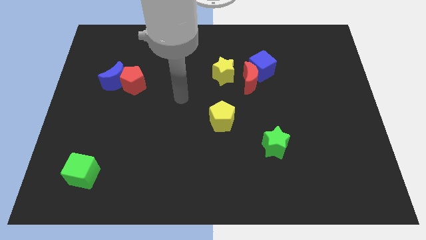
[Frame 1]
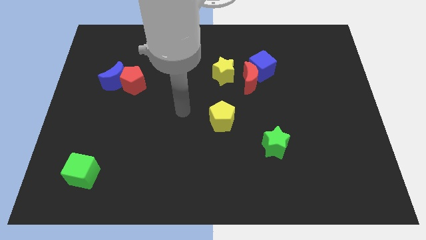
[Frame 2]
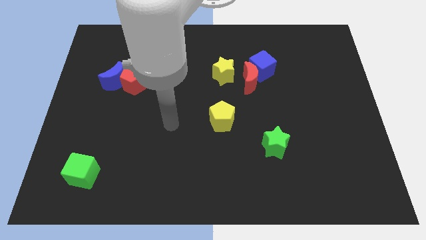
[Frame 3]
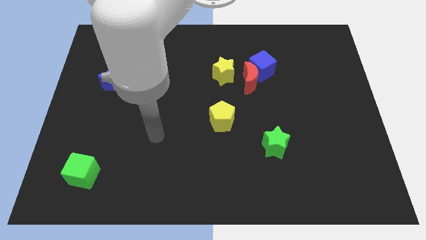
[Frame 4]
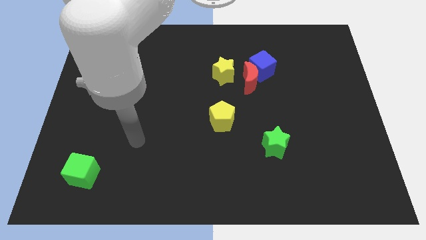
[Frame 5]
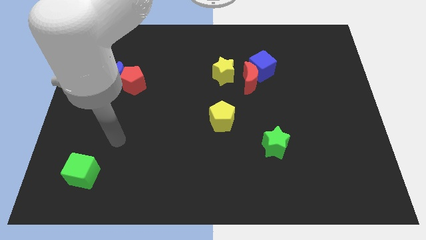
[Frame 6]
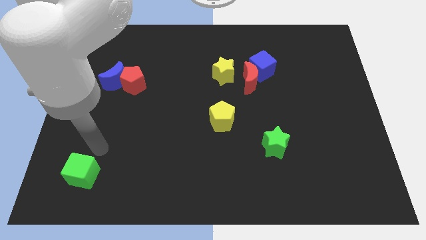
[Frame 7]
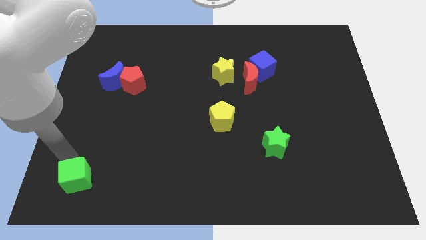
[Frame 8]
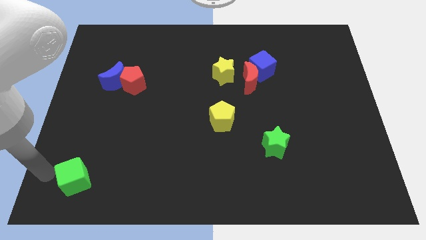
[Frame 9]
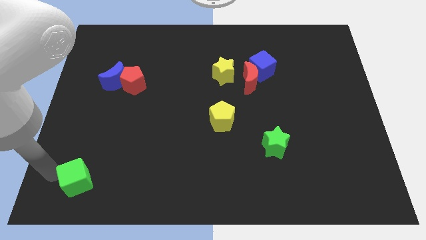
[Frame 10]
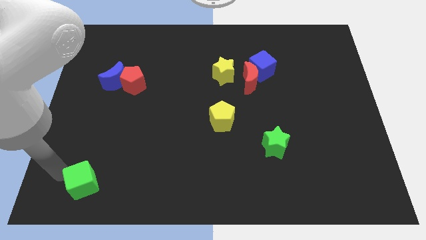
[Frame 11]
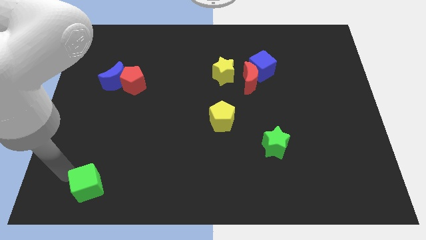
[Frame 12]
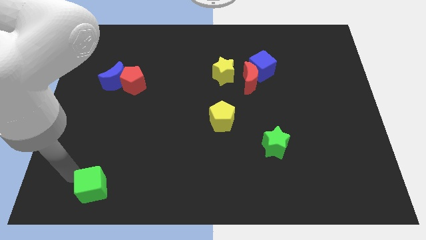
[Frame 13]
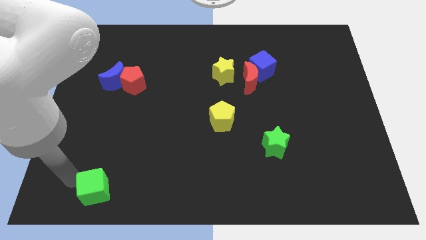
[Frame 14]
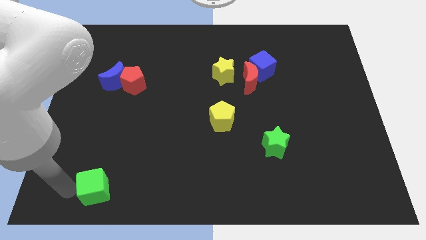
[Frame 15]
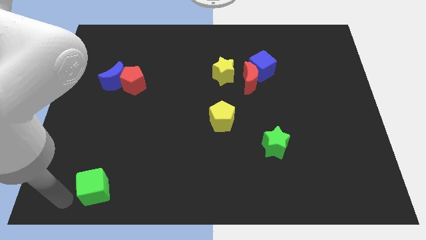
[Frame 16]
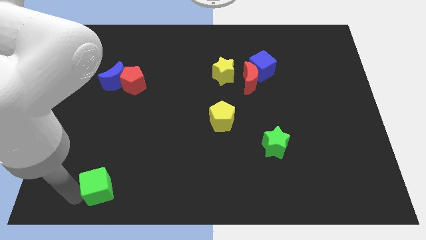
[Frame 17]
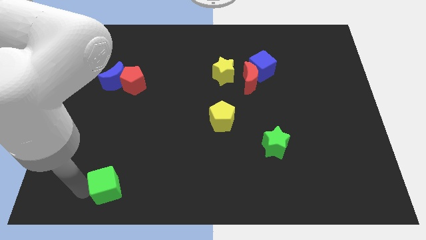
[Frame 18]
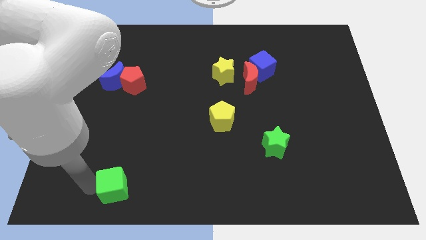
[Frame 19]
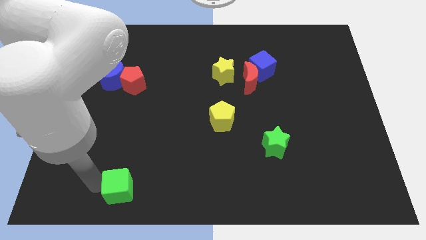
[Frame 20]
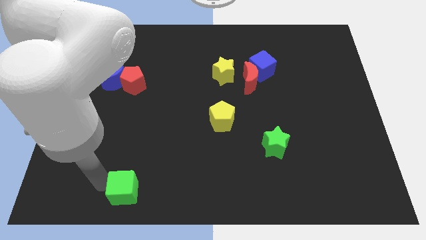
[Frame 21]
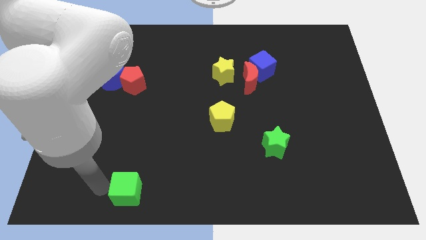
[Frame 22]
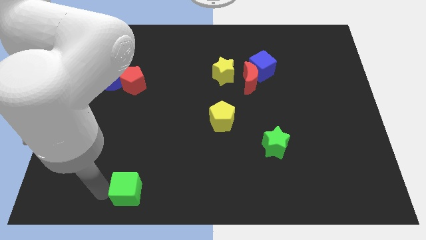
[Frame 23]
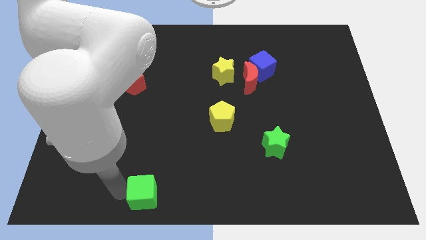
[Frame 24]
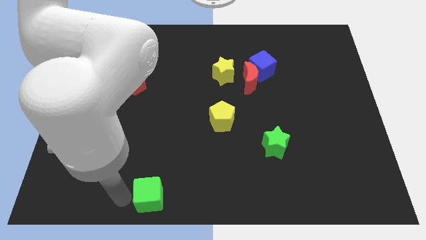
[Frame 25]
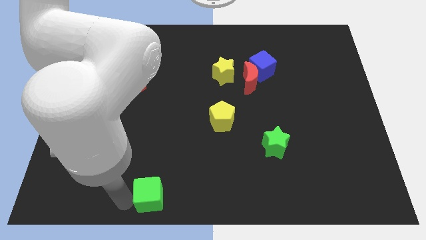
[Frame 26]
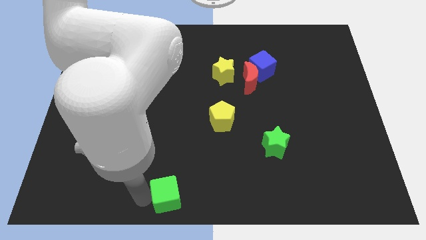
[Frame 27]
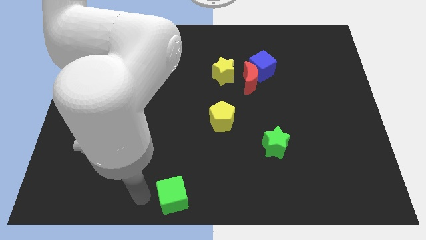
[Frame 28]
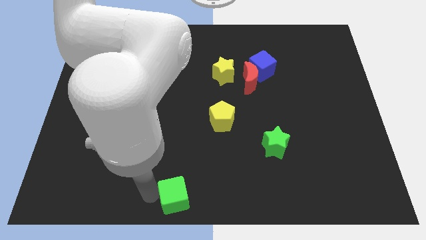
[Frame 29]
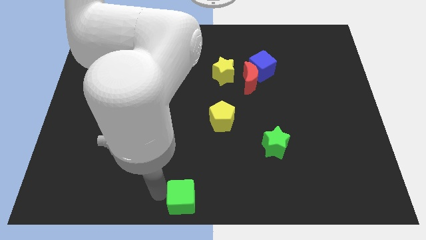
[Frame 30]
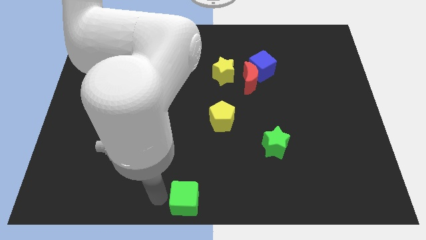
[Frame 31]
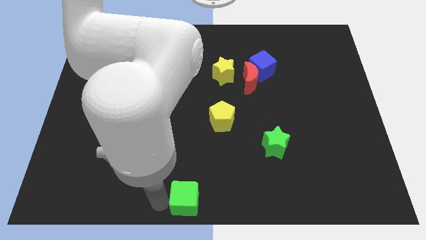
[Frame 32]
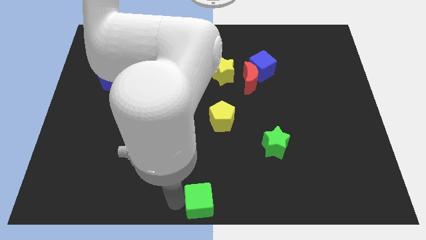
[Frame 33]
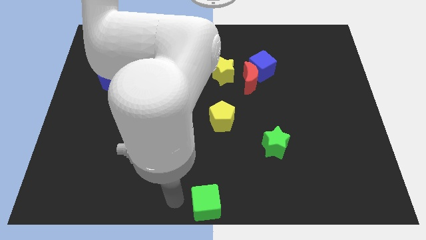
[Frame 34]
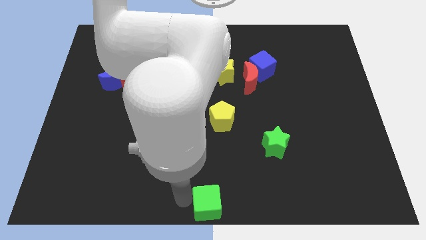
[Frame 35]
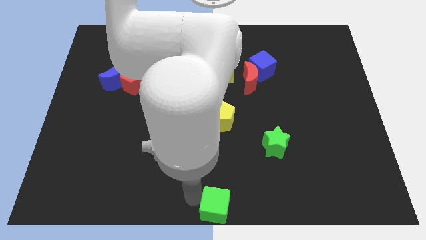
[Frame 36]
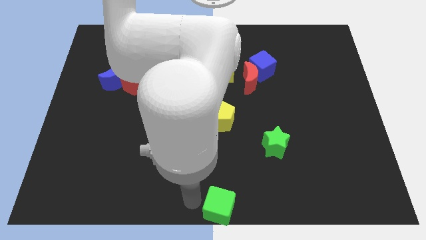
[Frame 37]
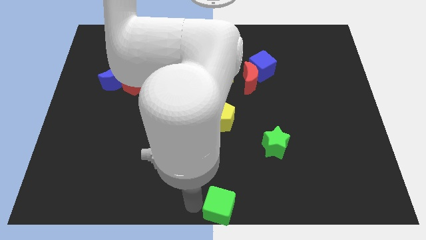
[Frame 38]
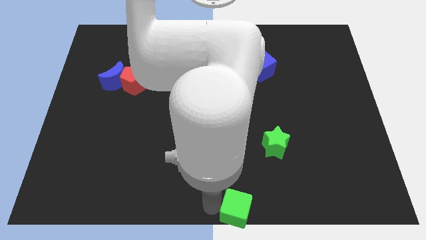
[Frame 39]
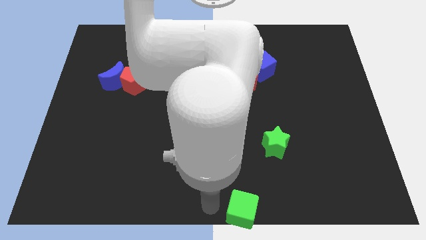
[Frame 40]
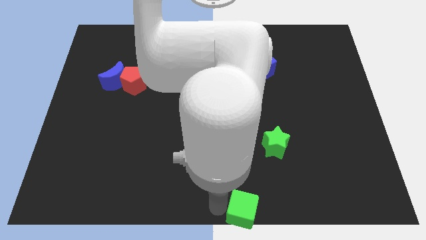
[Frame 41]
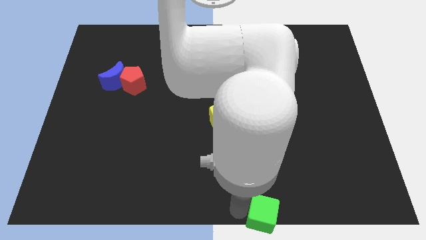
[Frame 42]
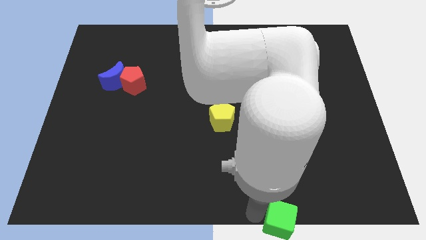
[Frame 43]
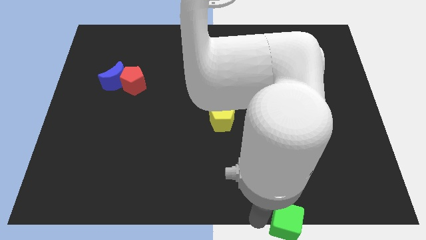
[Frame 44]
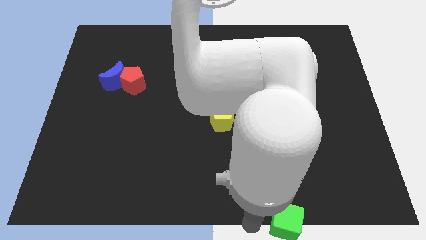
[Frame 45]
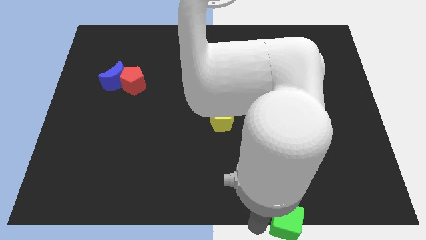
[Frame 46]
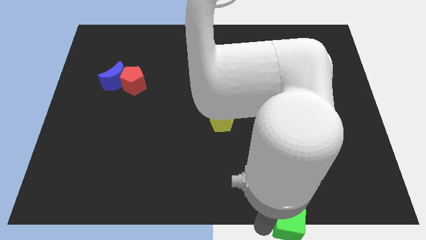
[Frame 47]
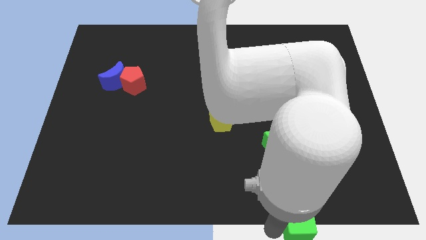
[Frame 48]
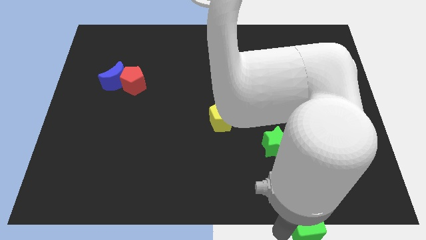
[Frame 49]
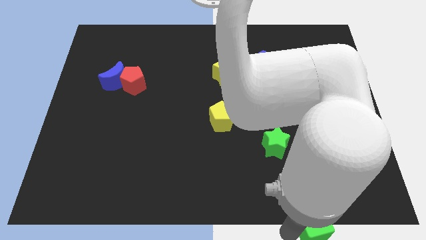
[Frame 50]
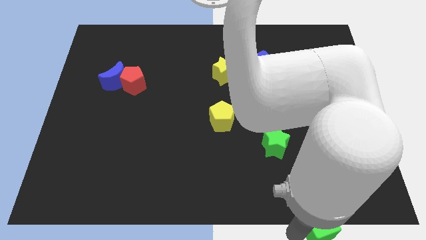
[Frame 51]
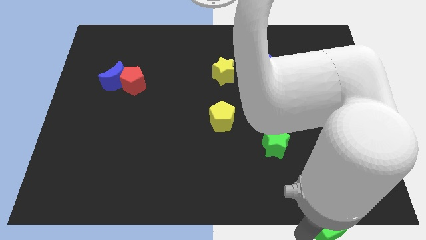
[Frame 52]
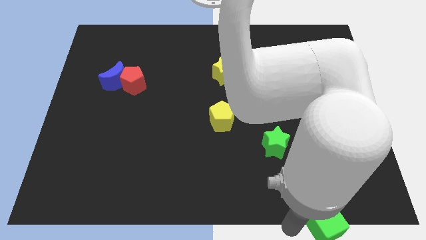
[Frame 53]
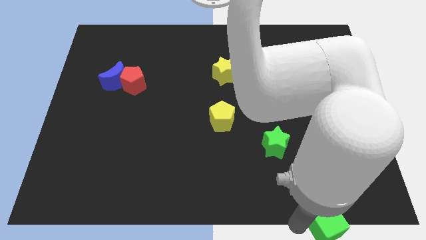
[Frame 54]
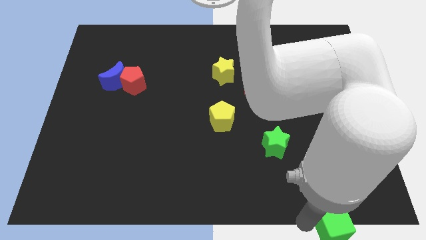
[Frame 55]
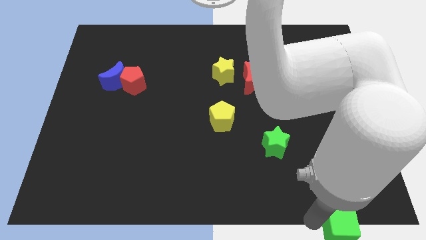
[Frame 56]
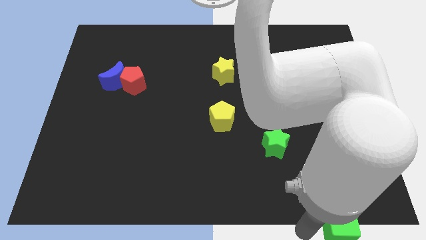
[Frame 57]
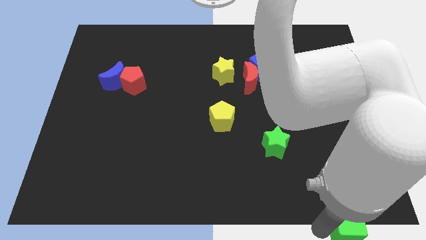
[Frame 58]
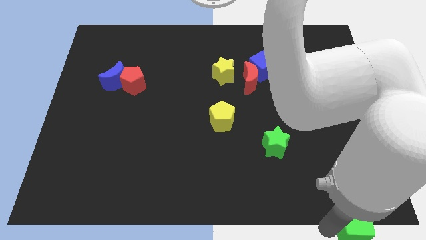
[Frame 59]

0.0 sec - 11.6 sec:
move the green cube to the bottom right of the board

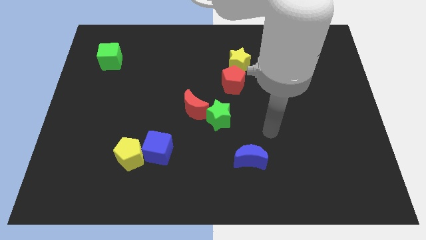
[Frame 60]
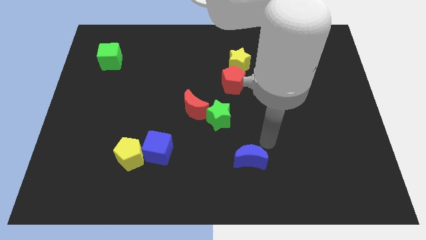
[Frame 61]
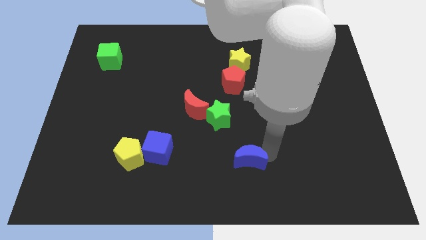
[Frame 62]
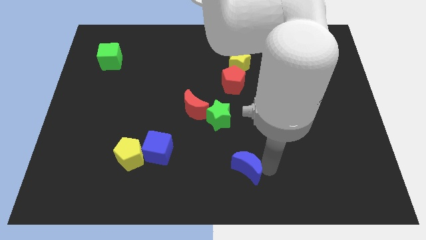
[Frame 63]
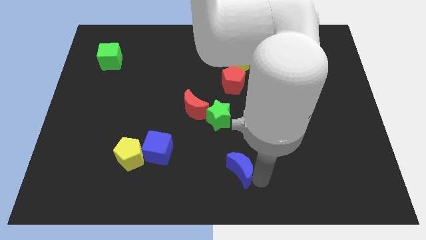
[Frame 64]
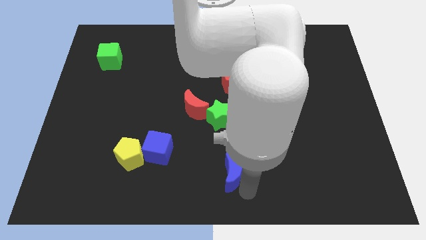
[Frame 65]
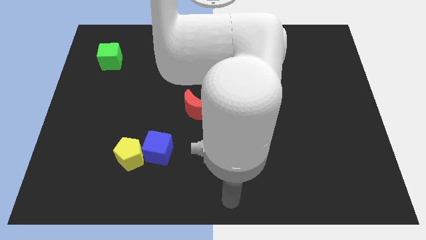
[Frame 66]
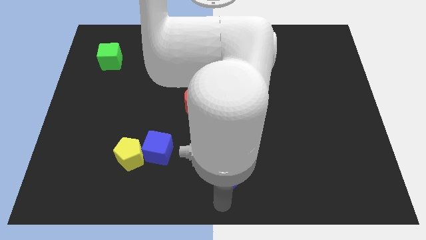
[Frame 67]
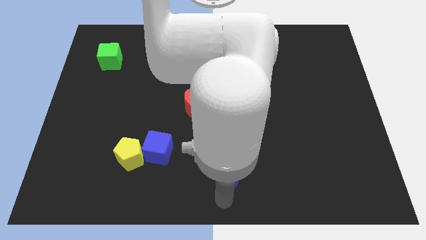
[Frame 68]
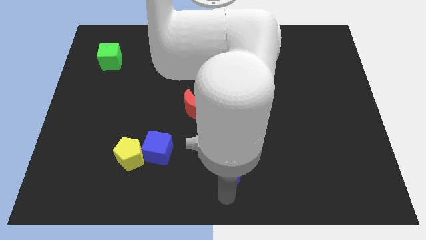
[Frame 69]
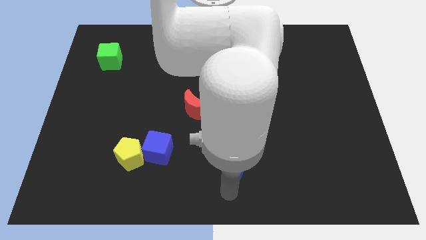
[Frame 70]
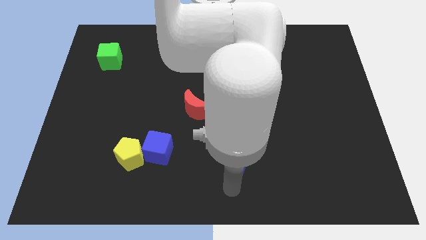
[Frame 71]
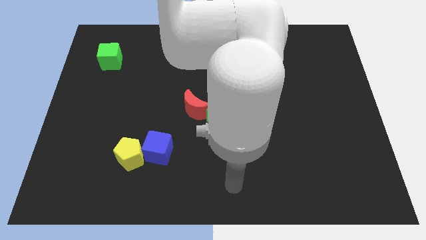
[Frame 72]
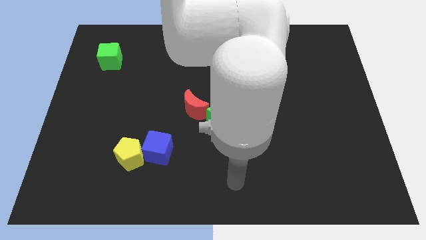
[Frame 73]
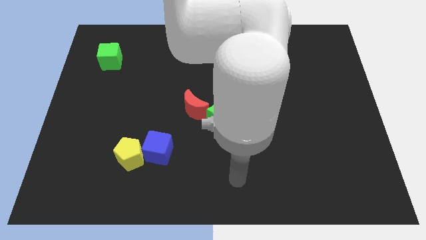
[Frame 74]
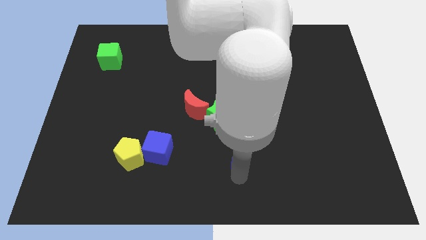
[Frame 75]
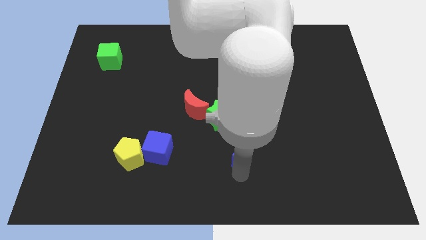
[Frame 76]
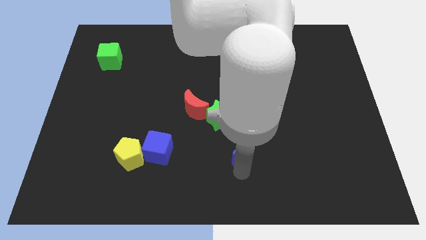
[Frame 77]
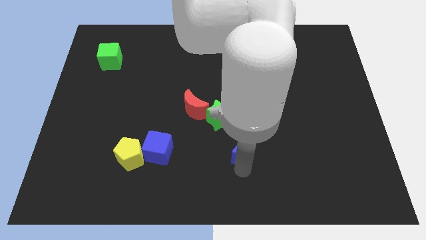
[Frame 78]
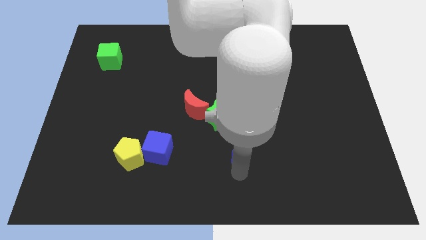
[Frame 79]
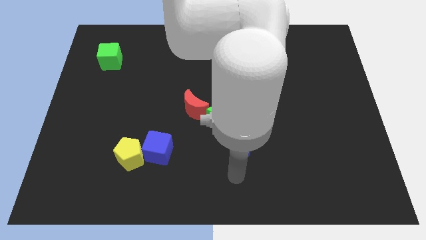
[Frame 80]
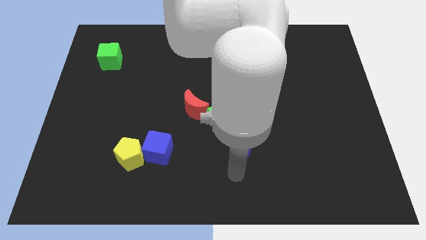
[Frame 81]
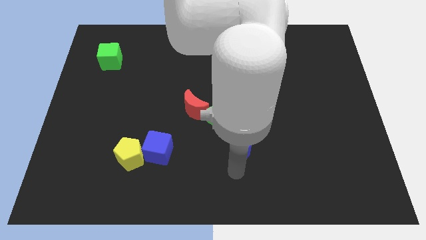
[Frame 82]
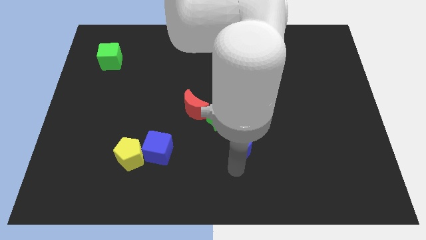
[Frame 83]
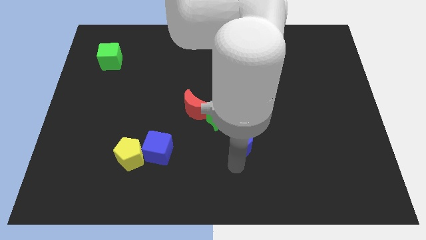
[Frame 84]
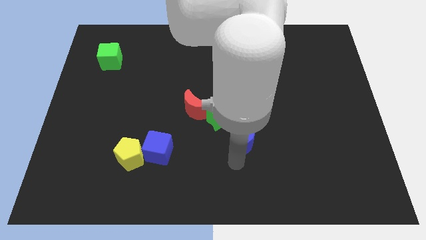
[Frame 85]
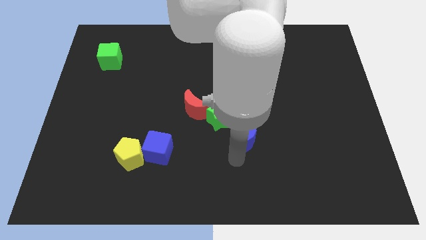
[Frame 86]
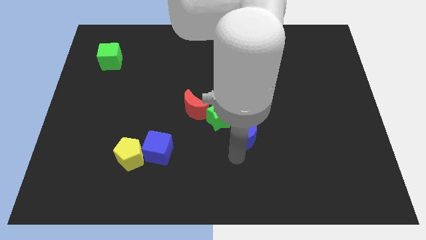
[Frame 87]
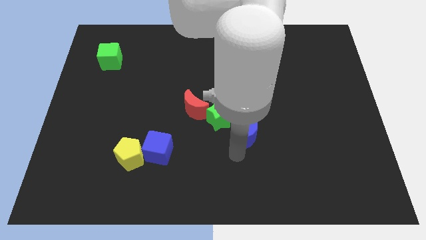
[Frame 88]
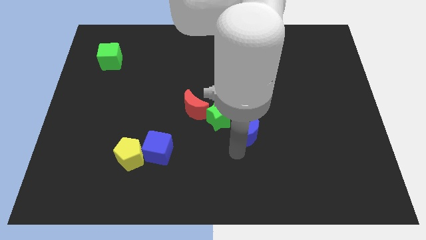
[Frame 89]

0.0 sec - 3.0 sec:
put the blue moon to the middle of the board
